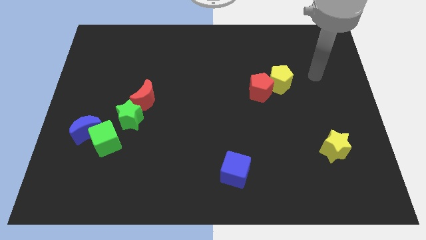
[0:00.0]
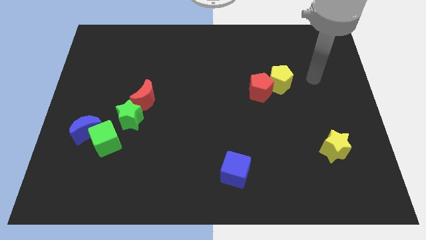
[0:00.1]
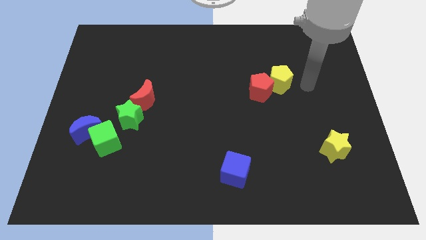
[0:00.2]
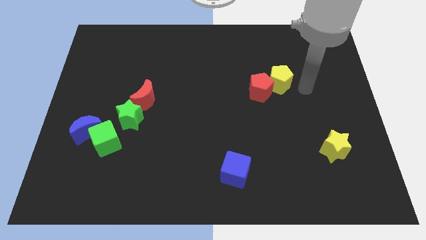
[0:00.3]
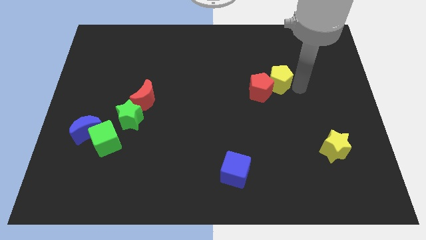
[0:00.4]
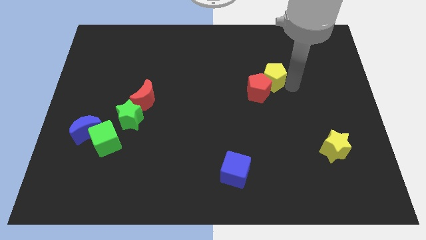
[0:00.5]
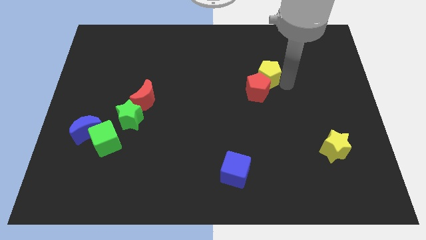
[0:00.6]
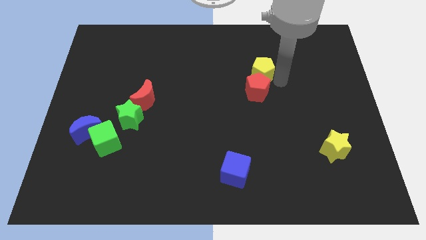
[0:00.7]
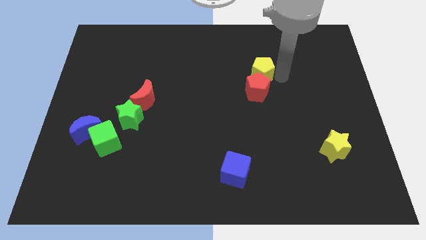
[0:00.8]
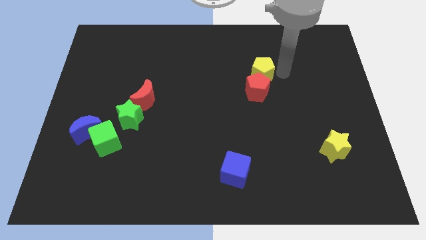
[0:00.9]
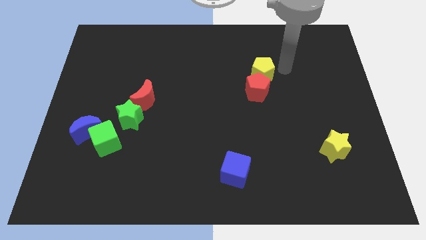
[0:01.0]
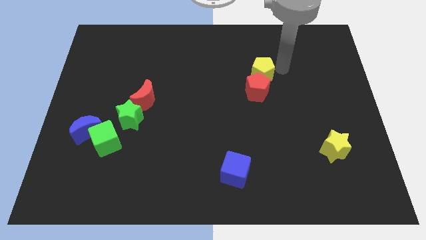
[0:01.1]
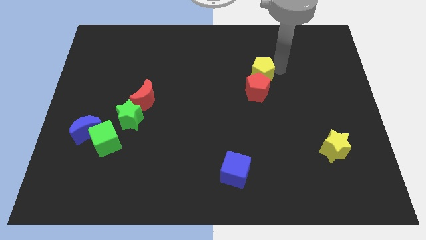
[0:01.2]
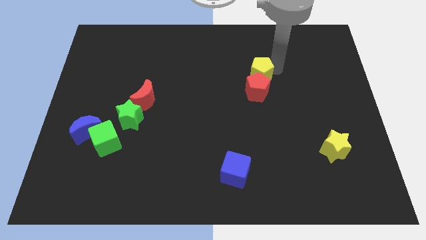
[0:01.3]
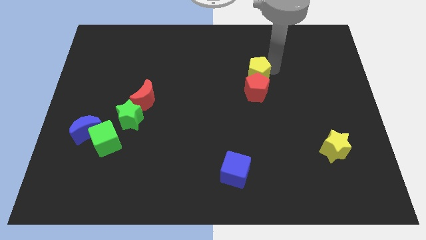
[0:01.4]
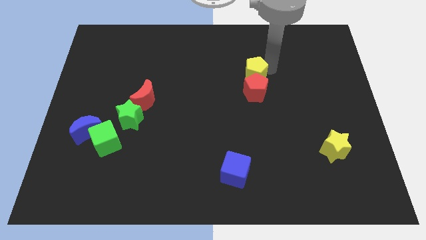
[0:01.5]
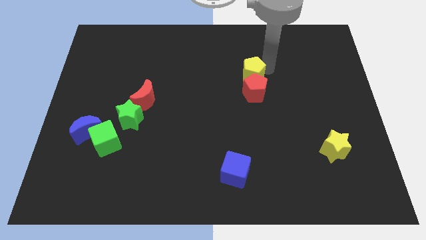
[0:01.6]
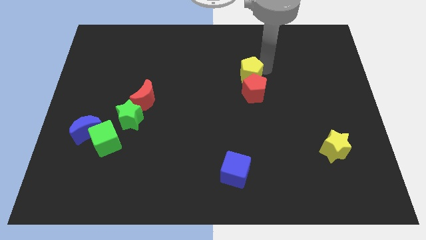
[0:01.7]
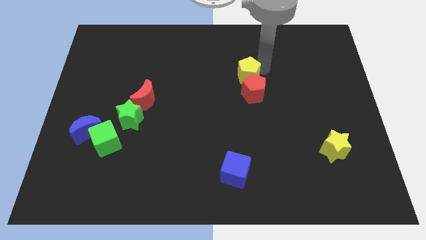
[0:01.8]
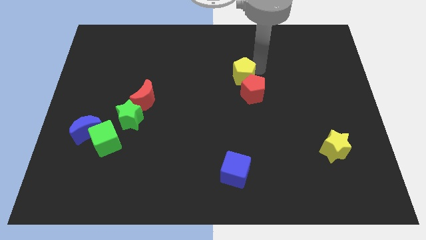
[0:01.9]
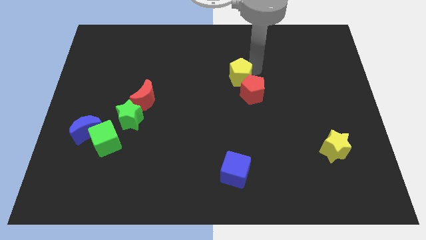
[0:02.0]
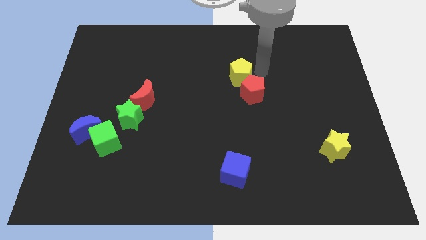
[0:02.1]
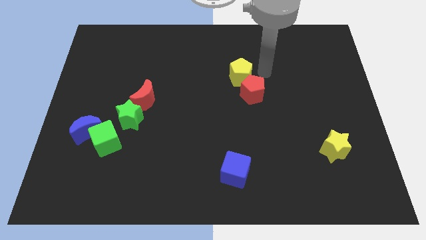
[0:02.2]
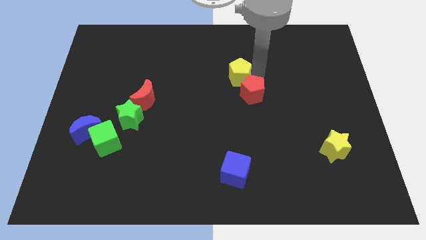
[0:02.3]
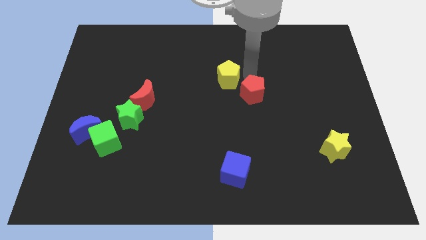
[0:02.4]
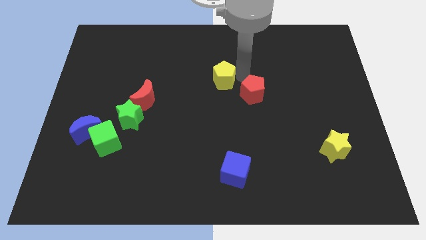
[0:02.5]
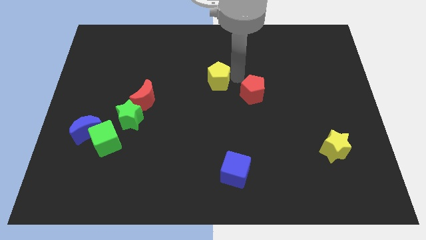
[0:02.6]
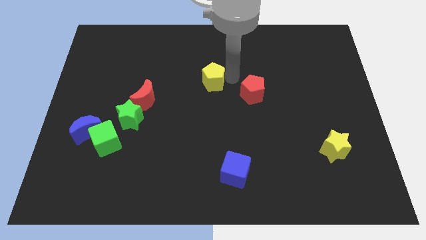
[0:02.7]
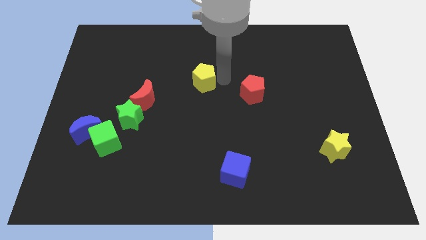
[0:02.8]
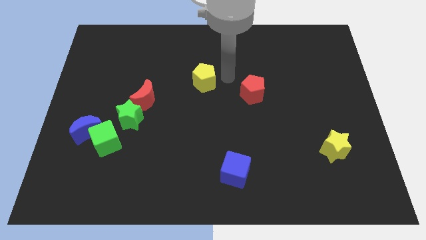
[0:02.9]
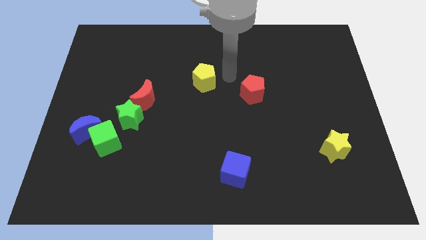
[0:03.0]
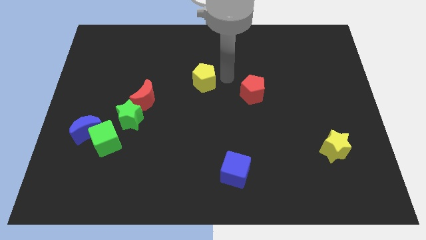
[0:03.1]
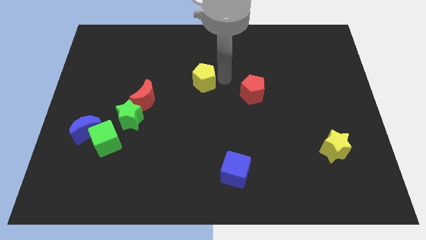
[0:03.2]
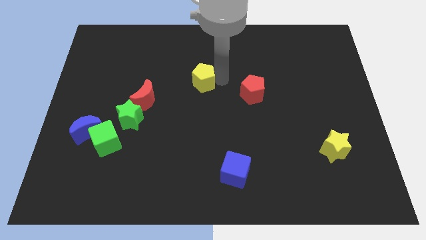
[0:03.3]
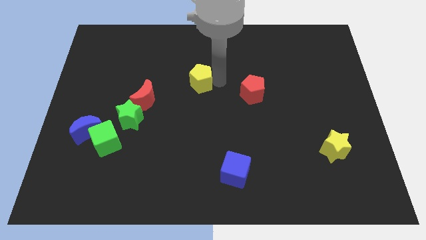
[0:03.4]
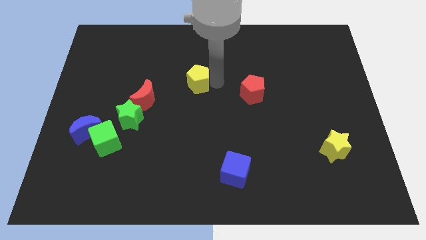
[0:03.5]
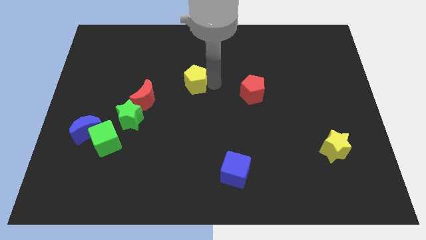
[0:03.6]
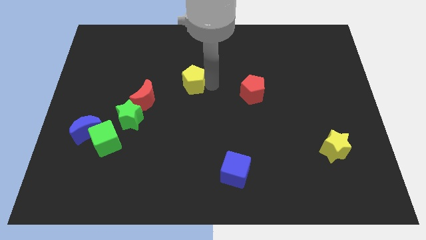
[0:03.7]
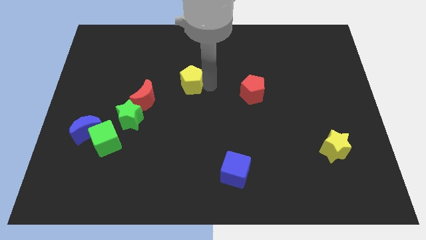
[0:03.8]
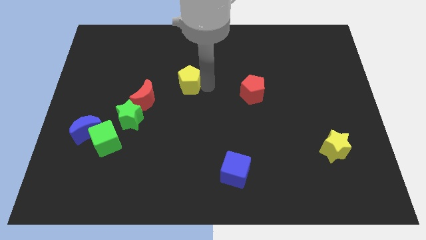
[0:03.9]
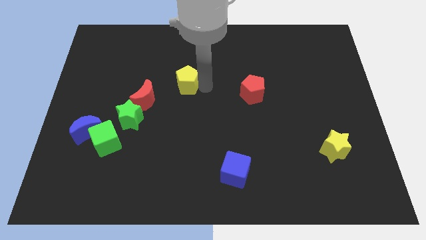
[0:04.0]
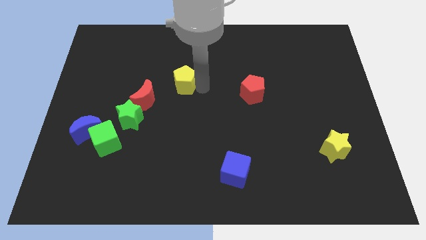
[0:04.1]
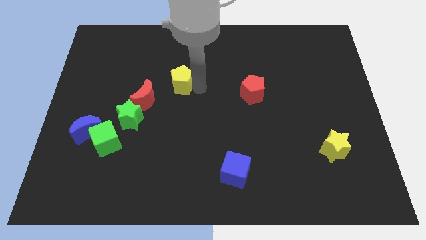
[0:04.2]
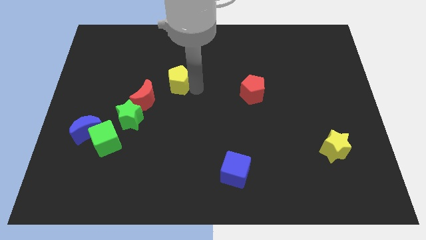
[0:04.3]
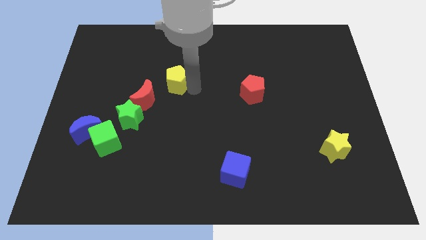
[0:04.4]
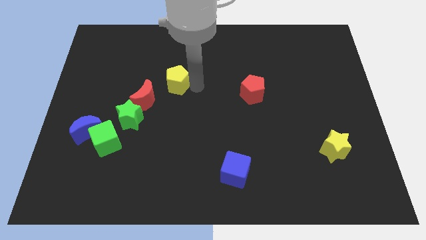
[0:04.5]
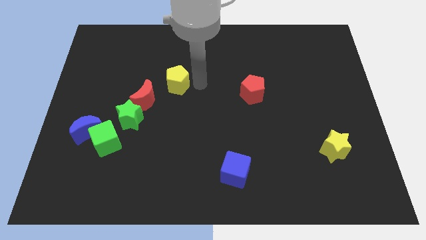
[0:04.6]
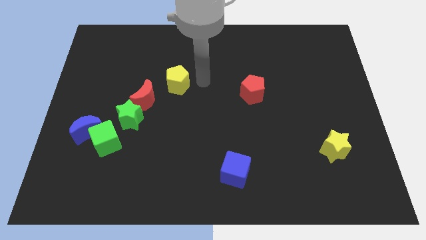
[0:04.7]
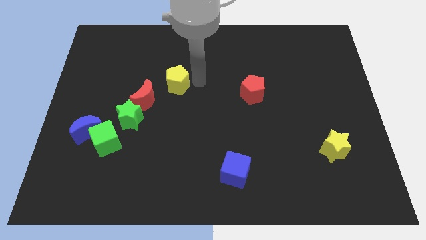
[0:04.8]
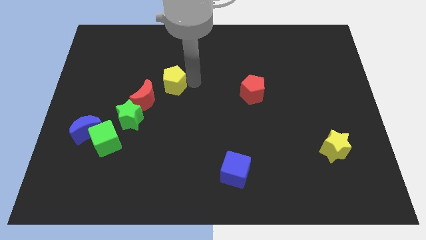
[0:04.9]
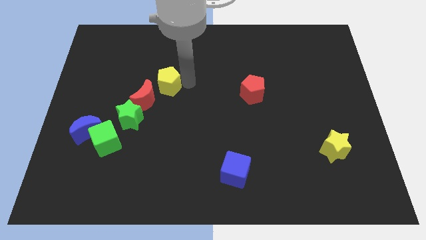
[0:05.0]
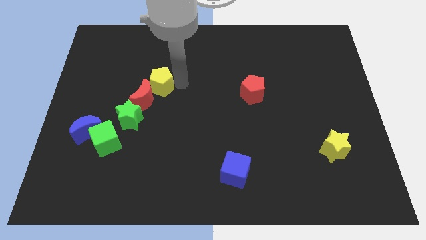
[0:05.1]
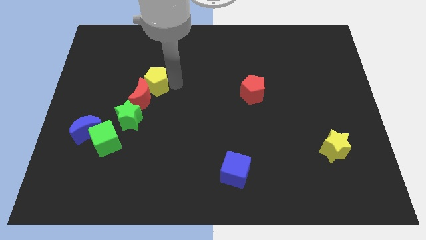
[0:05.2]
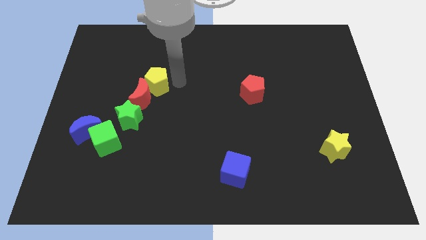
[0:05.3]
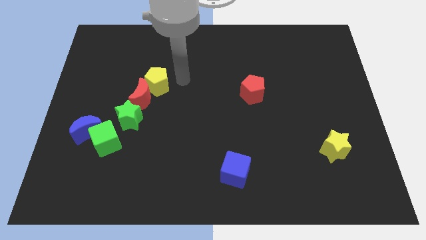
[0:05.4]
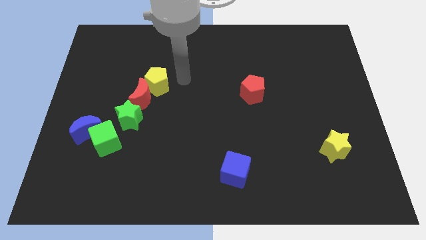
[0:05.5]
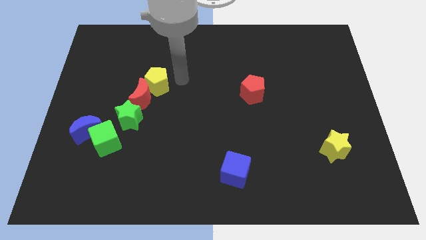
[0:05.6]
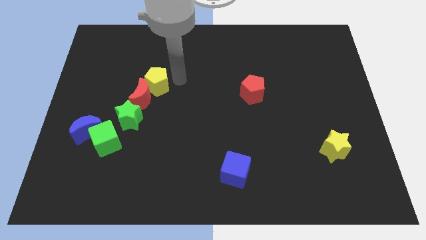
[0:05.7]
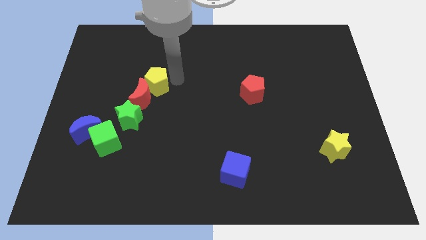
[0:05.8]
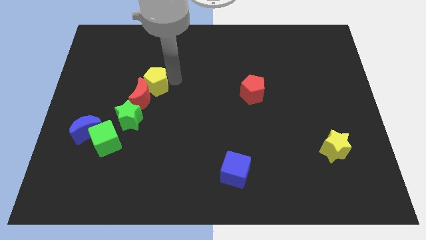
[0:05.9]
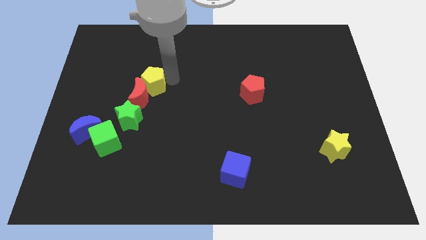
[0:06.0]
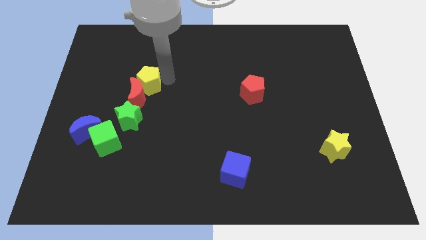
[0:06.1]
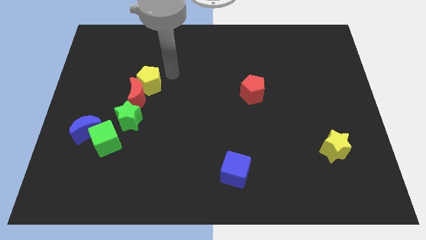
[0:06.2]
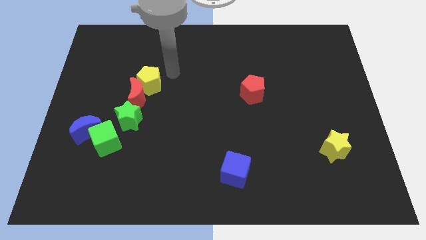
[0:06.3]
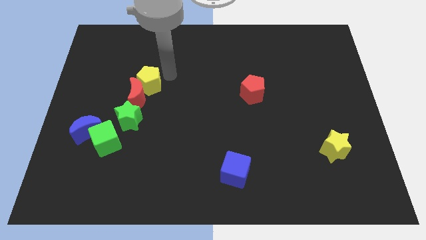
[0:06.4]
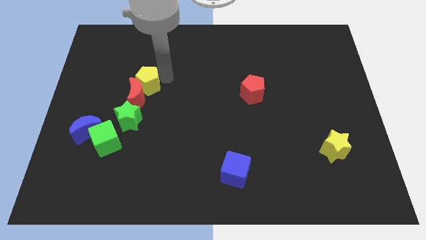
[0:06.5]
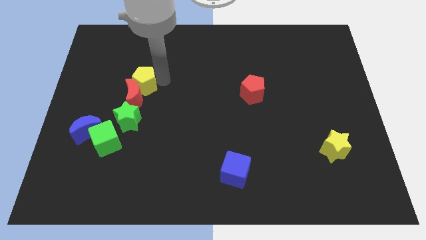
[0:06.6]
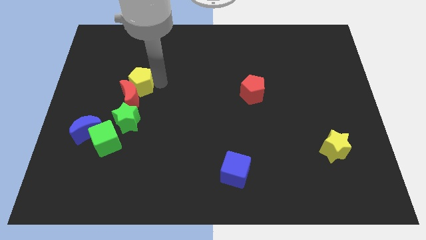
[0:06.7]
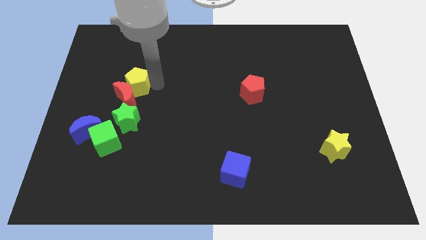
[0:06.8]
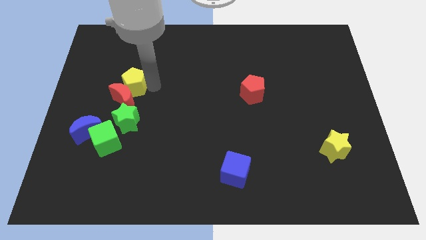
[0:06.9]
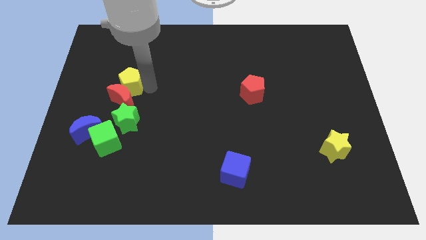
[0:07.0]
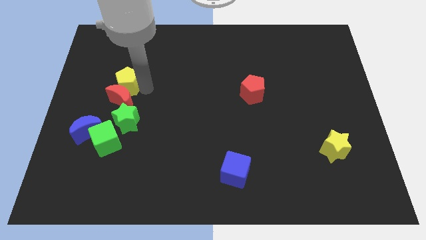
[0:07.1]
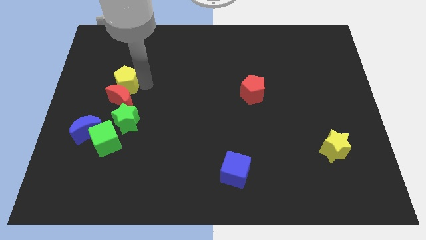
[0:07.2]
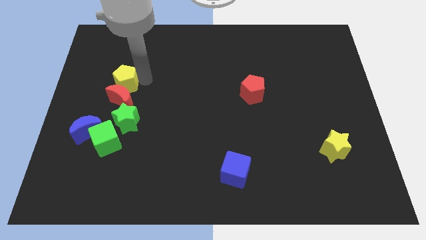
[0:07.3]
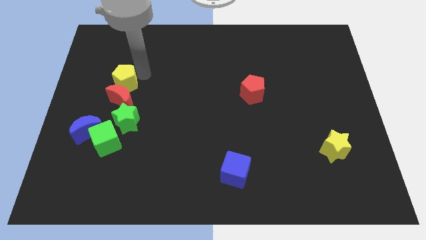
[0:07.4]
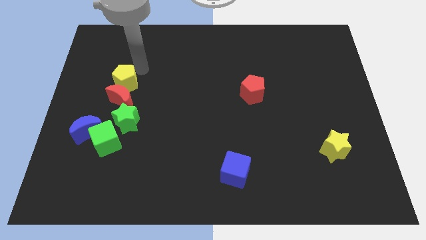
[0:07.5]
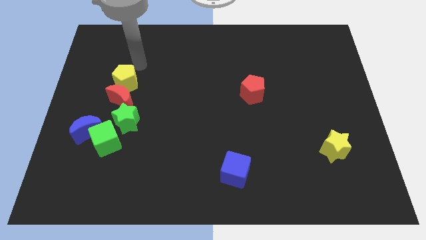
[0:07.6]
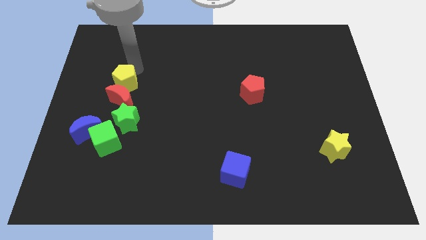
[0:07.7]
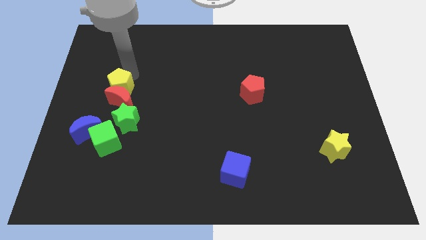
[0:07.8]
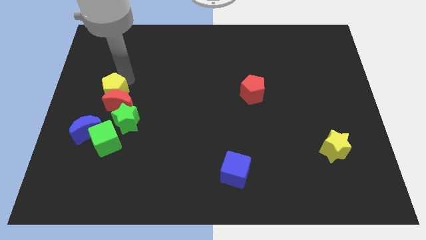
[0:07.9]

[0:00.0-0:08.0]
put the yellow pentagon diagonally up and to the left of the green star

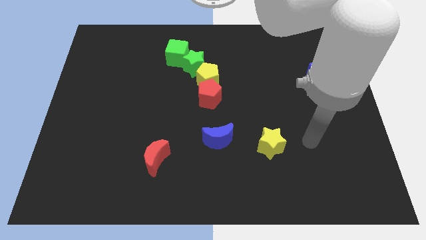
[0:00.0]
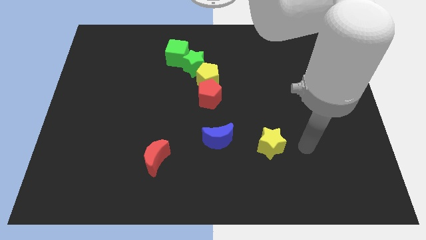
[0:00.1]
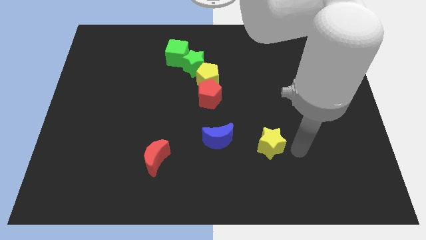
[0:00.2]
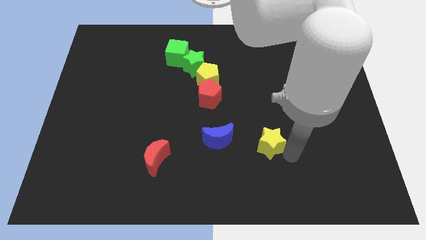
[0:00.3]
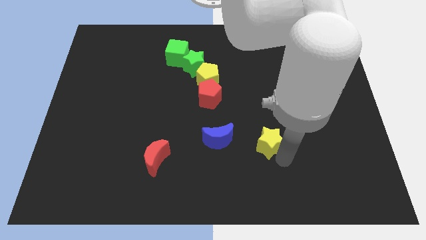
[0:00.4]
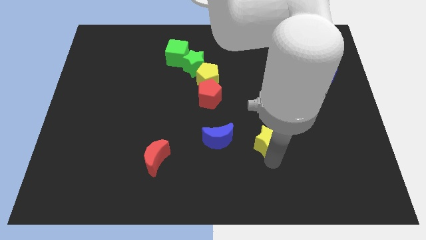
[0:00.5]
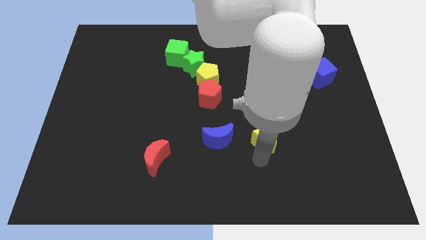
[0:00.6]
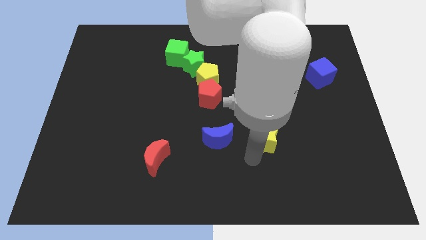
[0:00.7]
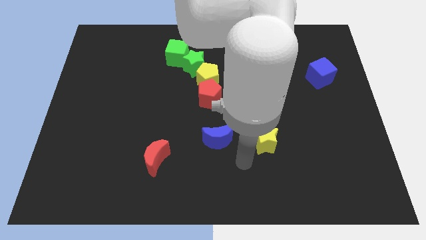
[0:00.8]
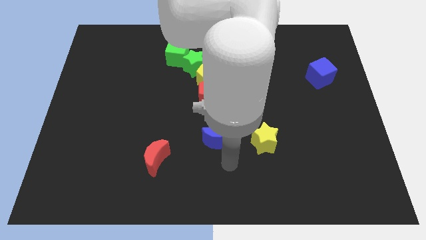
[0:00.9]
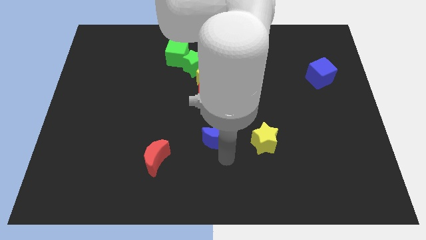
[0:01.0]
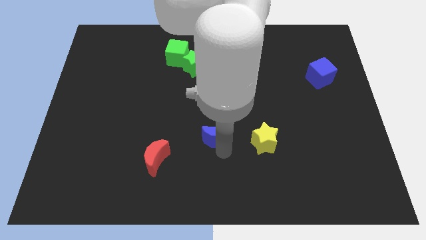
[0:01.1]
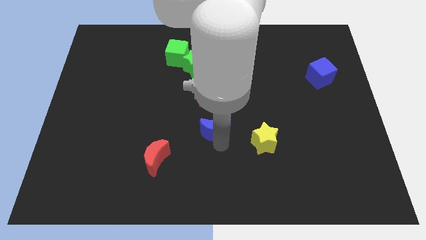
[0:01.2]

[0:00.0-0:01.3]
move the blue moon to the bottom of the yellow pentagon
